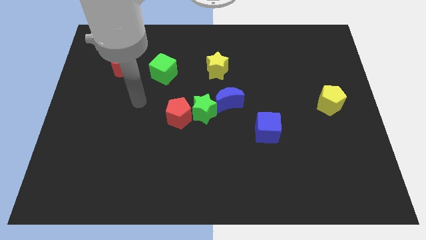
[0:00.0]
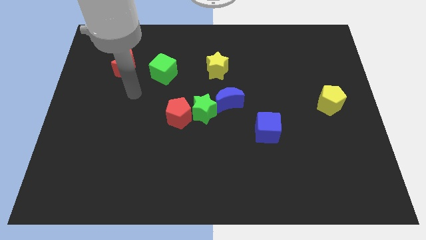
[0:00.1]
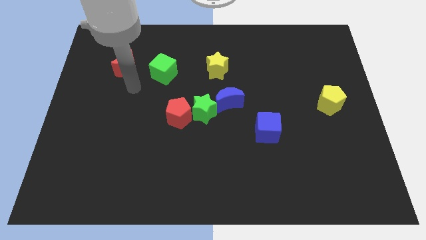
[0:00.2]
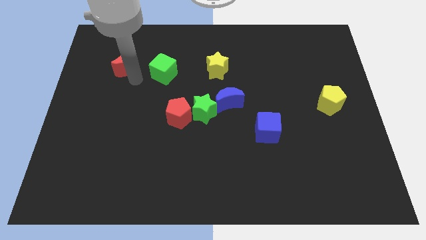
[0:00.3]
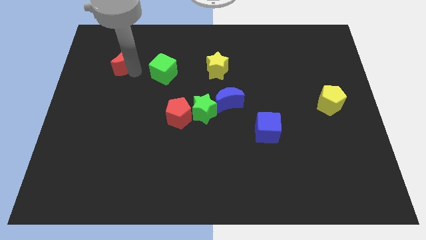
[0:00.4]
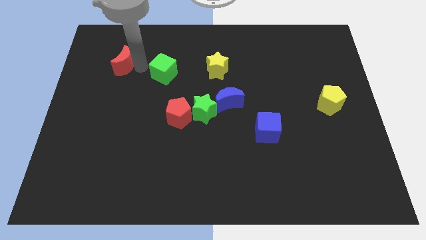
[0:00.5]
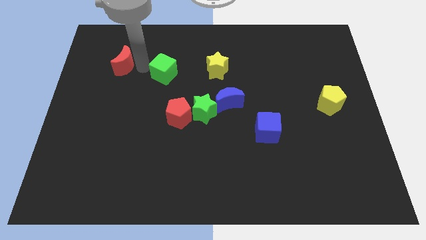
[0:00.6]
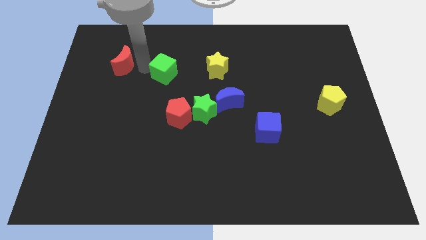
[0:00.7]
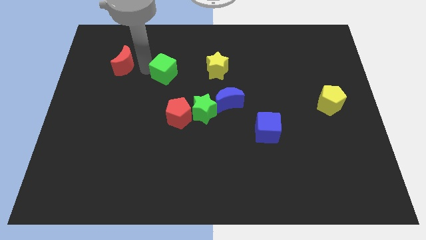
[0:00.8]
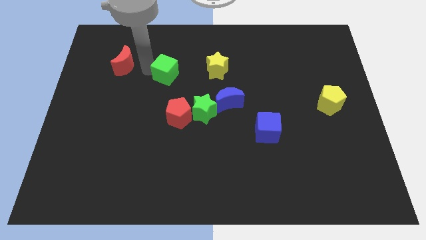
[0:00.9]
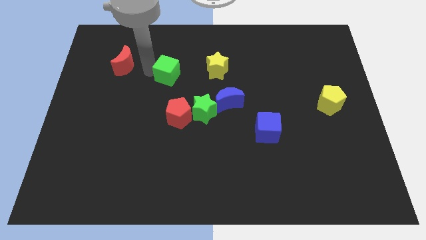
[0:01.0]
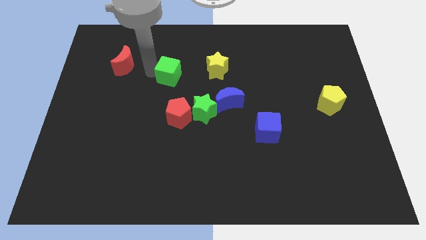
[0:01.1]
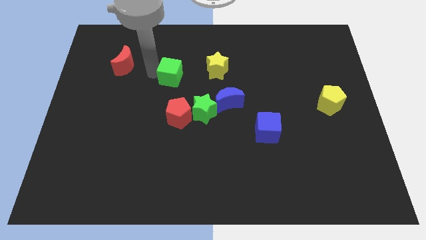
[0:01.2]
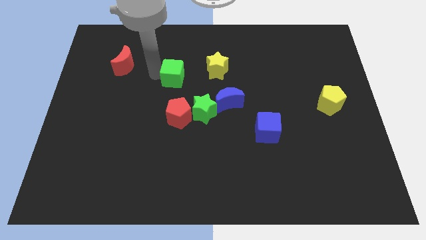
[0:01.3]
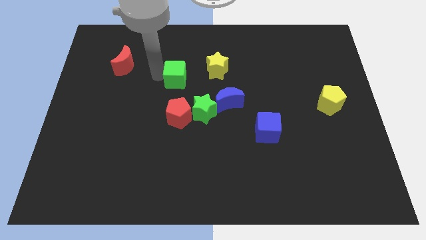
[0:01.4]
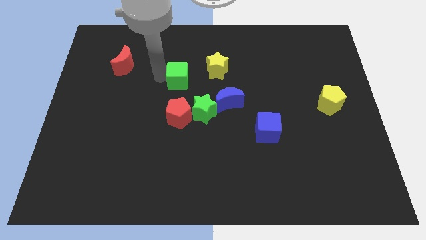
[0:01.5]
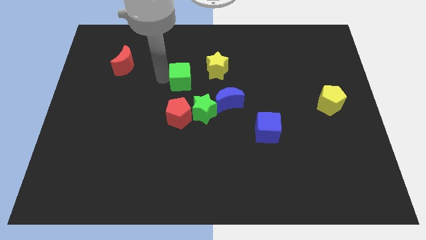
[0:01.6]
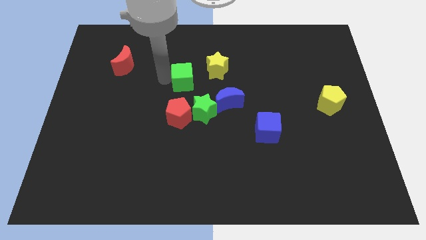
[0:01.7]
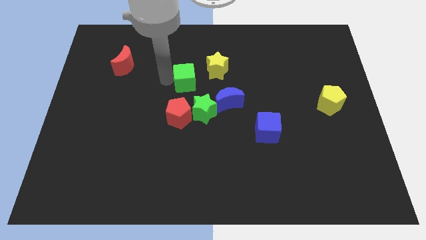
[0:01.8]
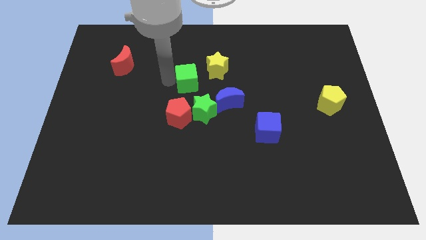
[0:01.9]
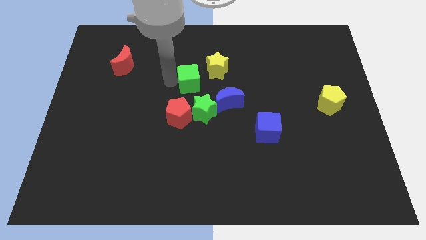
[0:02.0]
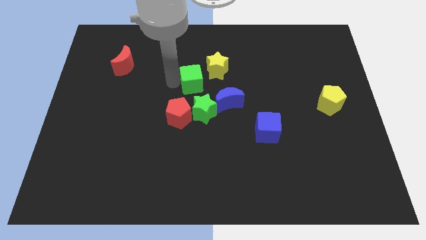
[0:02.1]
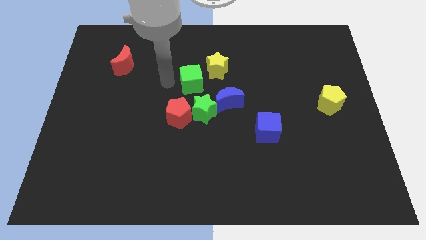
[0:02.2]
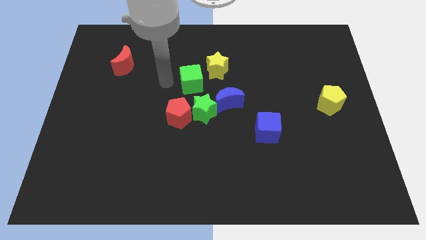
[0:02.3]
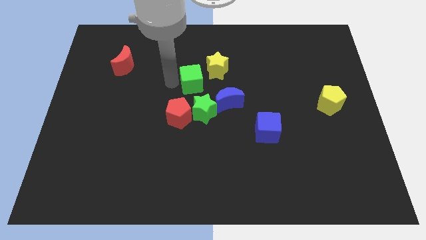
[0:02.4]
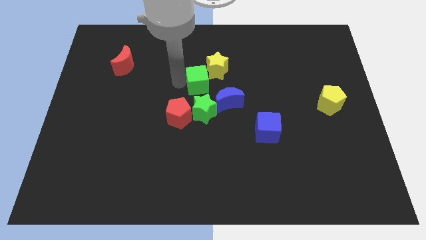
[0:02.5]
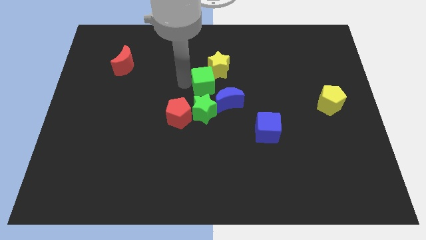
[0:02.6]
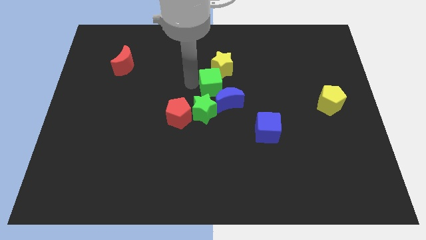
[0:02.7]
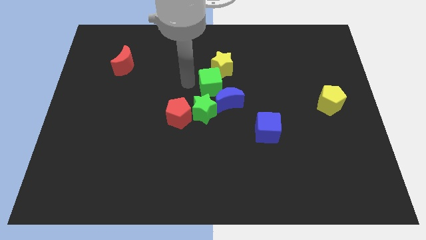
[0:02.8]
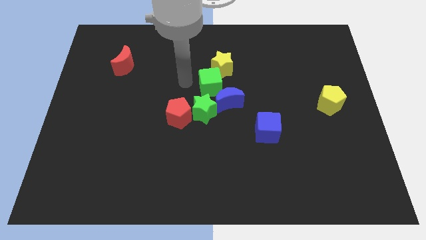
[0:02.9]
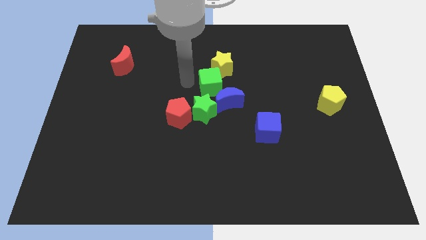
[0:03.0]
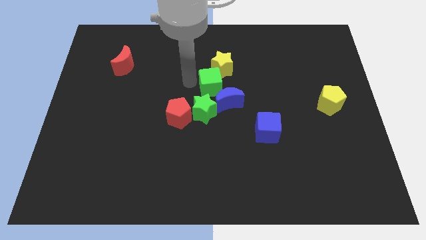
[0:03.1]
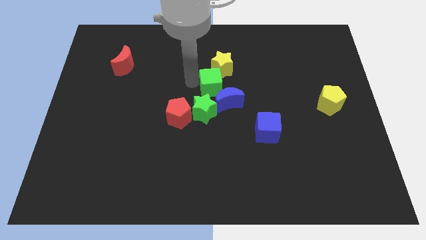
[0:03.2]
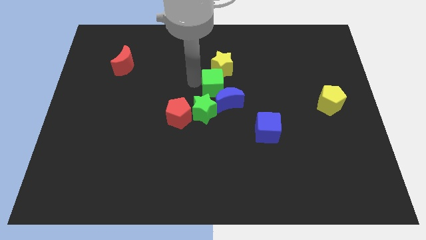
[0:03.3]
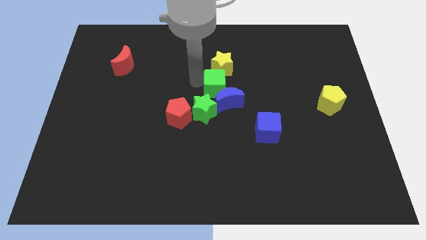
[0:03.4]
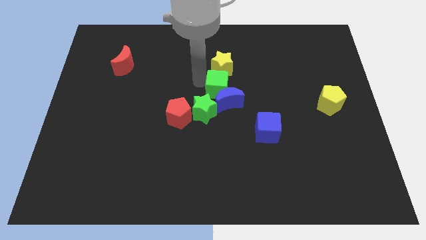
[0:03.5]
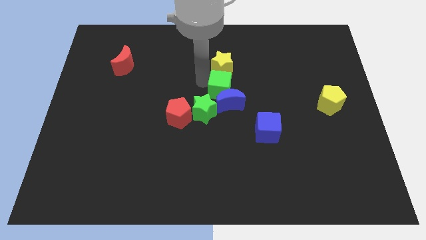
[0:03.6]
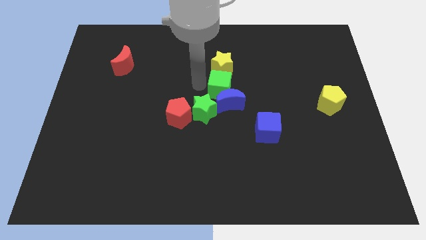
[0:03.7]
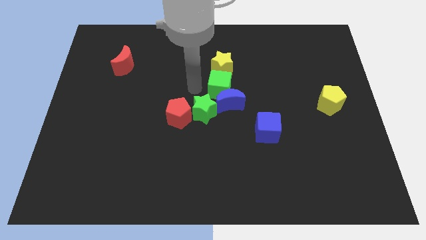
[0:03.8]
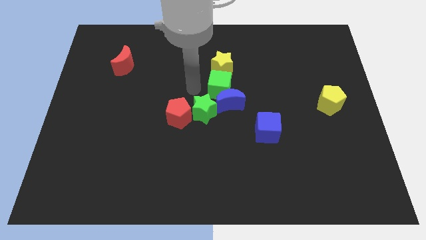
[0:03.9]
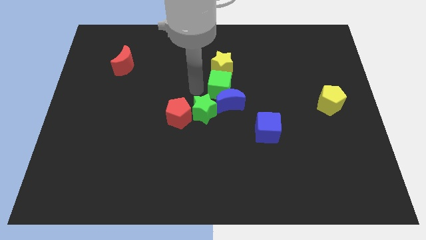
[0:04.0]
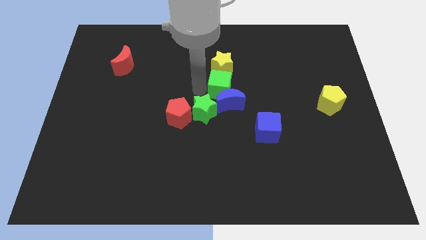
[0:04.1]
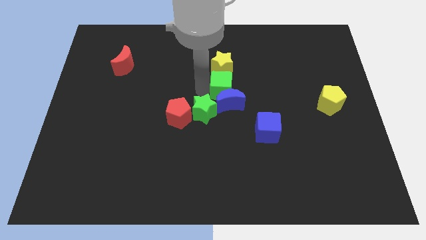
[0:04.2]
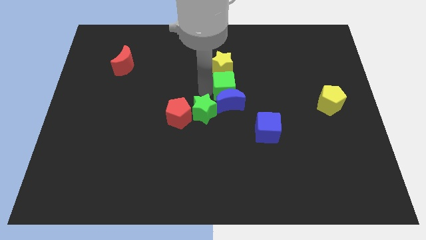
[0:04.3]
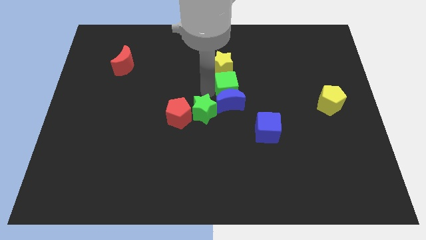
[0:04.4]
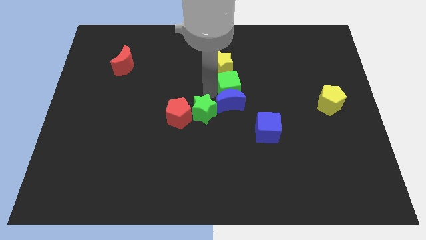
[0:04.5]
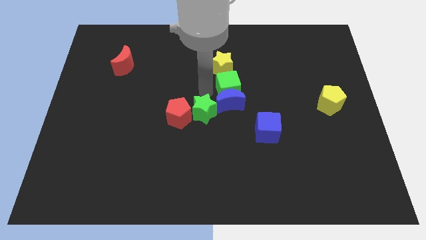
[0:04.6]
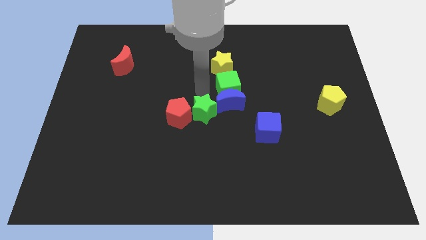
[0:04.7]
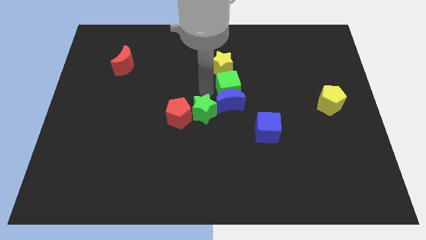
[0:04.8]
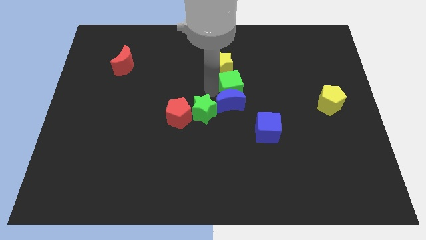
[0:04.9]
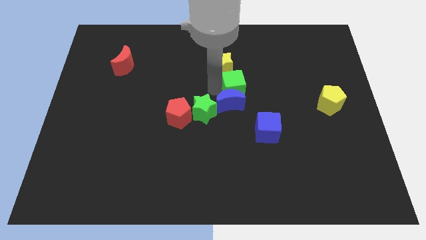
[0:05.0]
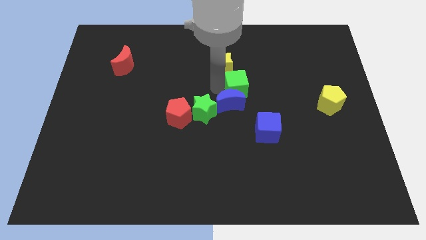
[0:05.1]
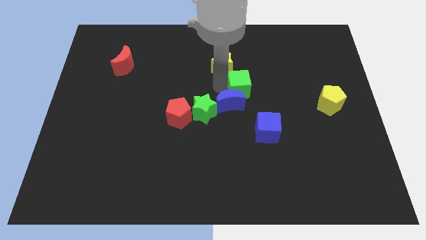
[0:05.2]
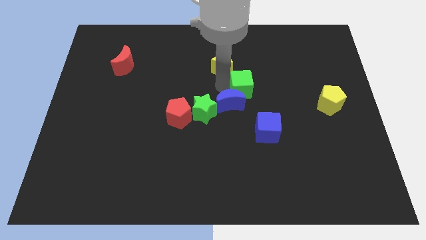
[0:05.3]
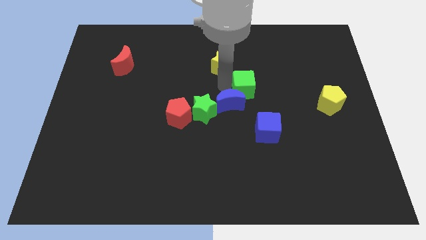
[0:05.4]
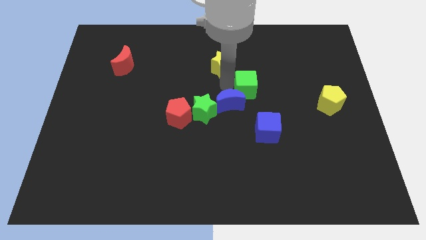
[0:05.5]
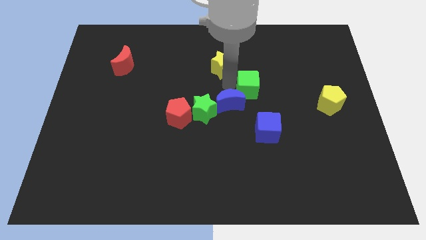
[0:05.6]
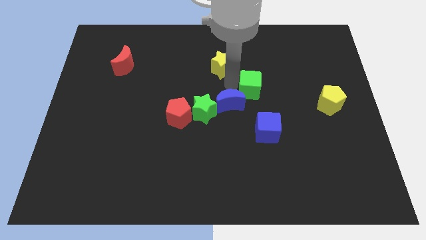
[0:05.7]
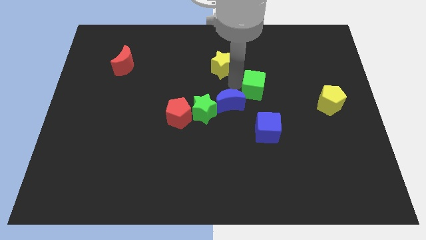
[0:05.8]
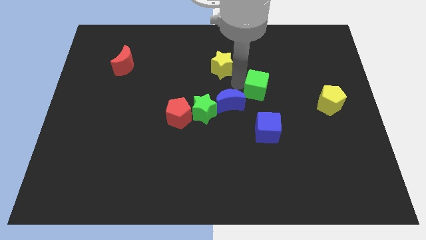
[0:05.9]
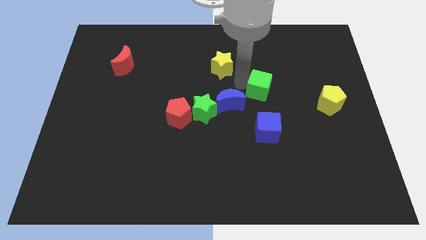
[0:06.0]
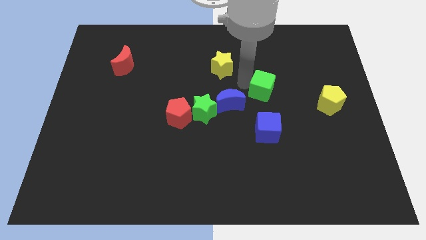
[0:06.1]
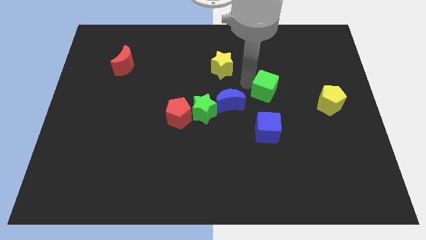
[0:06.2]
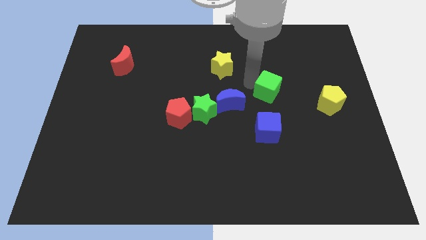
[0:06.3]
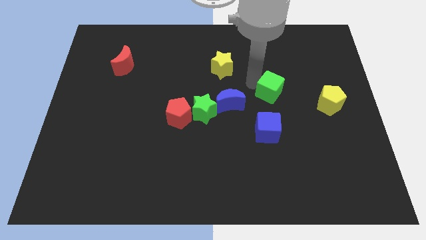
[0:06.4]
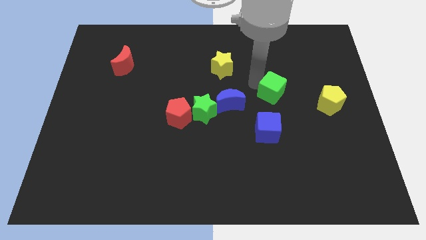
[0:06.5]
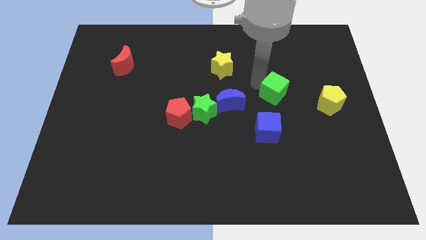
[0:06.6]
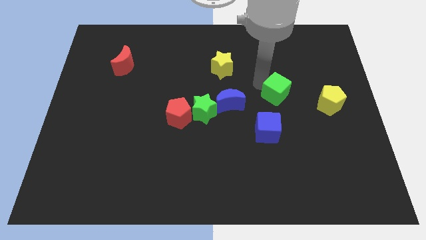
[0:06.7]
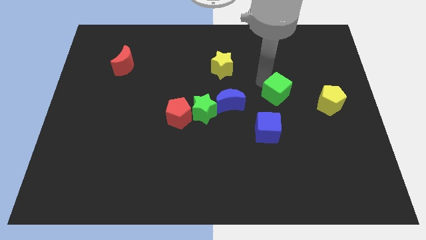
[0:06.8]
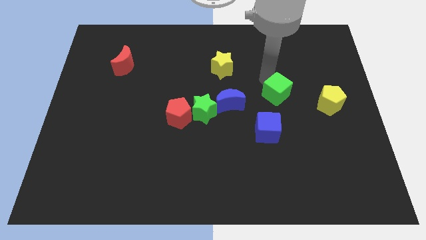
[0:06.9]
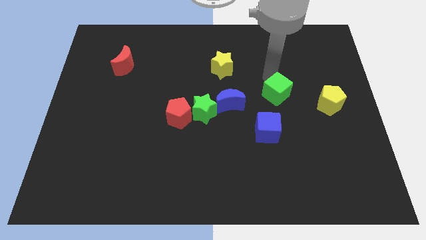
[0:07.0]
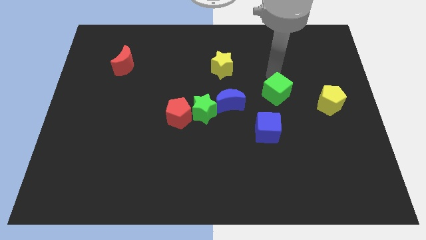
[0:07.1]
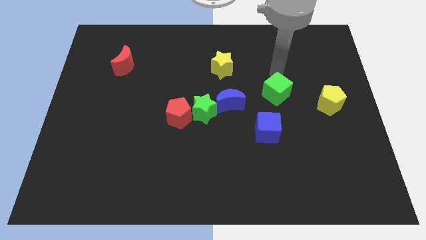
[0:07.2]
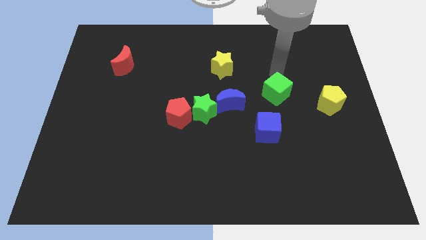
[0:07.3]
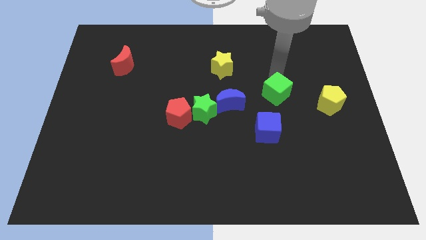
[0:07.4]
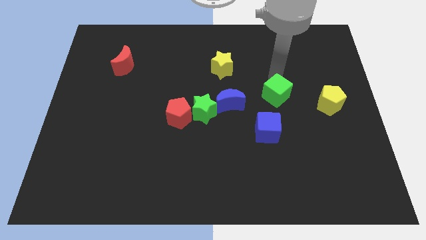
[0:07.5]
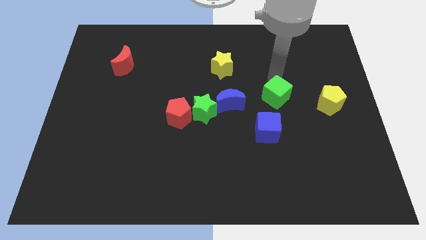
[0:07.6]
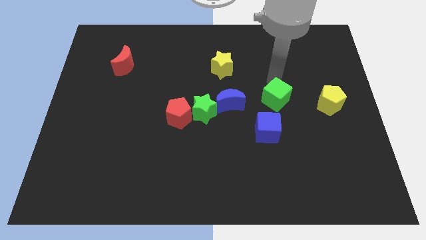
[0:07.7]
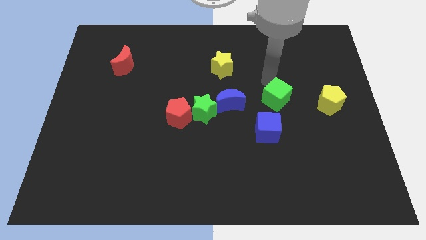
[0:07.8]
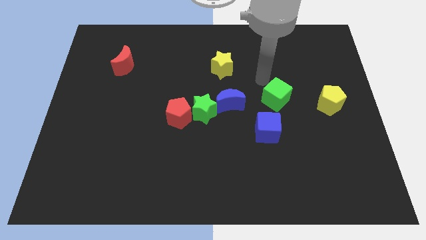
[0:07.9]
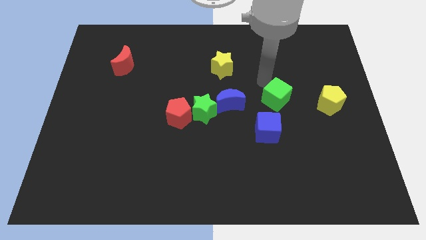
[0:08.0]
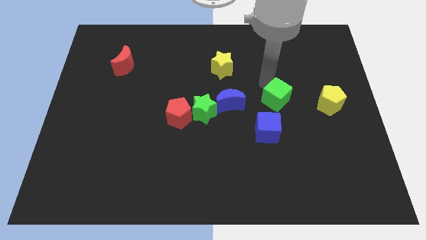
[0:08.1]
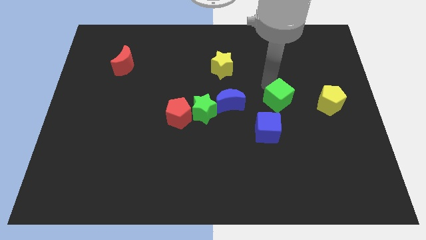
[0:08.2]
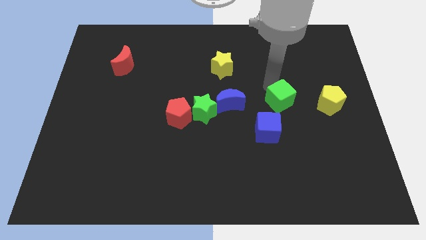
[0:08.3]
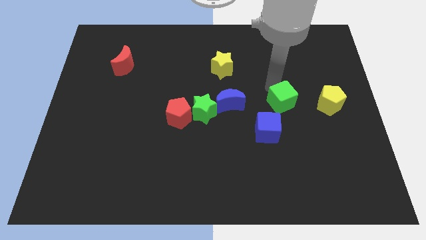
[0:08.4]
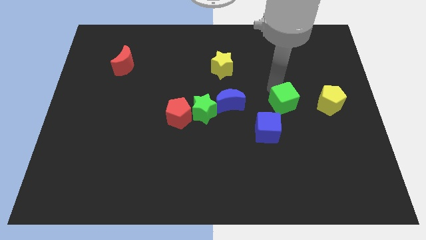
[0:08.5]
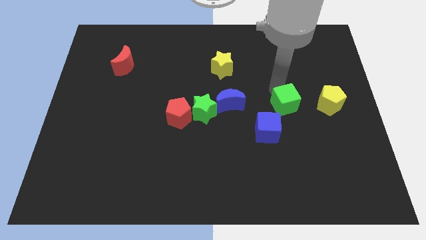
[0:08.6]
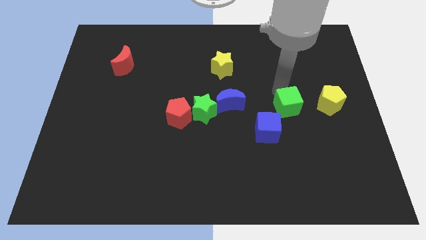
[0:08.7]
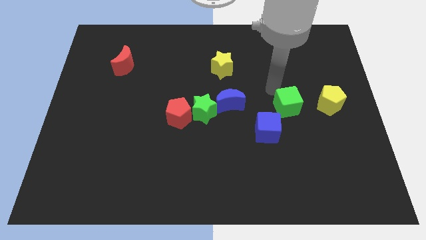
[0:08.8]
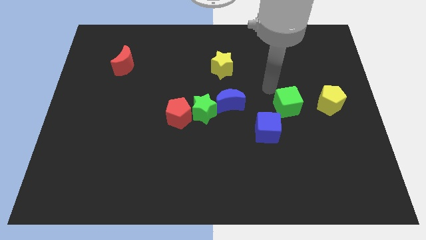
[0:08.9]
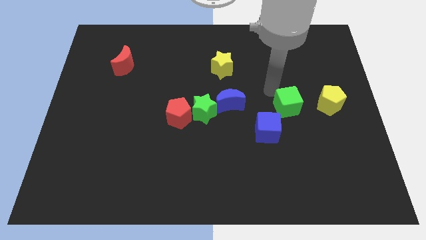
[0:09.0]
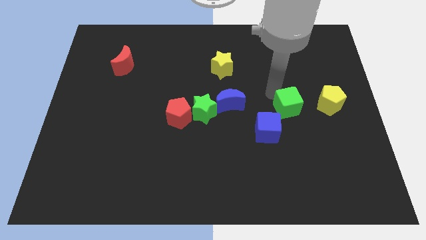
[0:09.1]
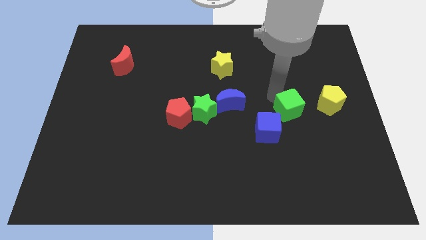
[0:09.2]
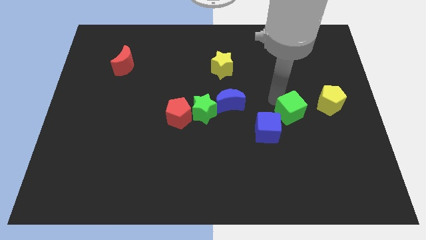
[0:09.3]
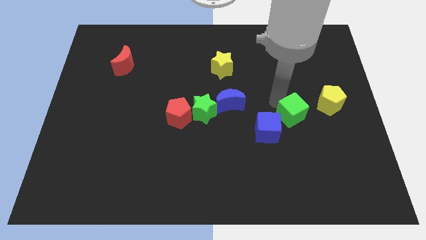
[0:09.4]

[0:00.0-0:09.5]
push the green cube right of the blue cube
